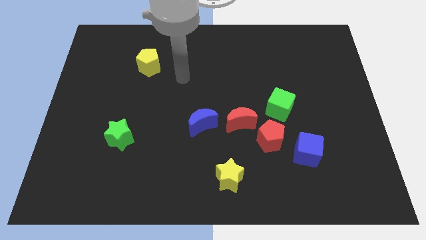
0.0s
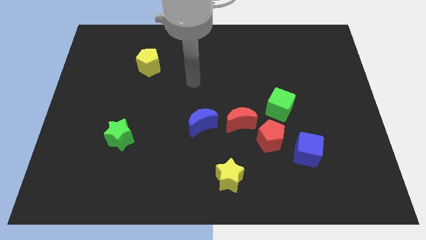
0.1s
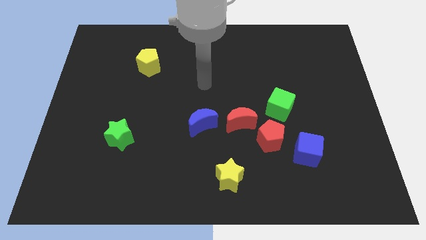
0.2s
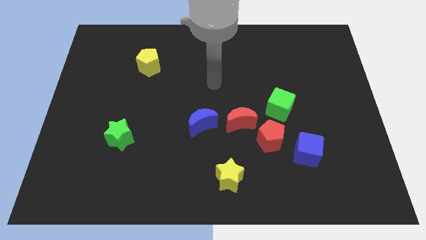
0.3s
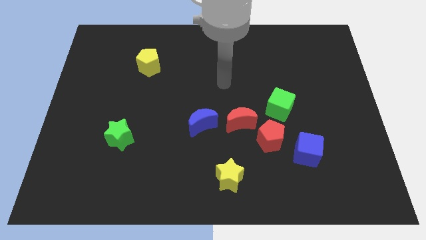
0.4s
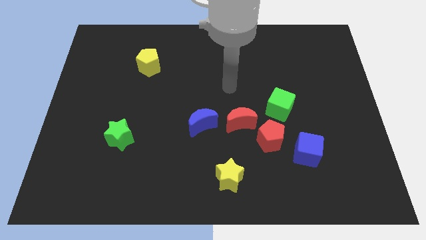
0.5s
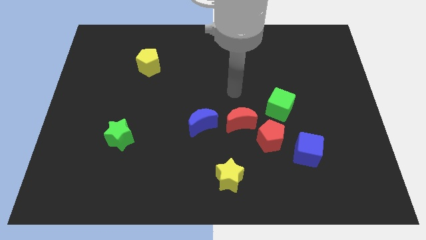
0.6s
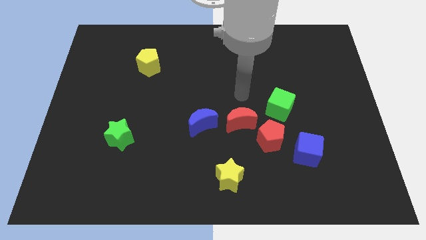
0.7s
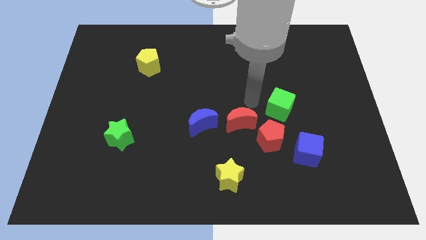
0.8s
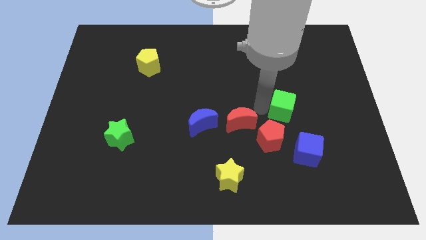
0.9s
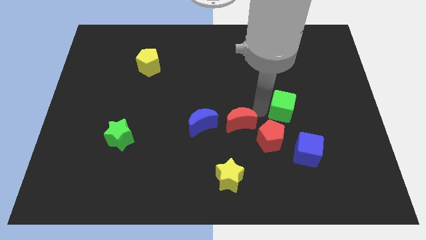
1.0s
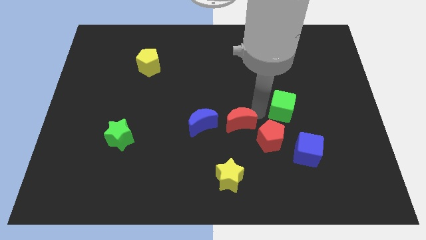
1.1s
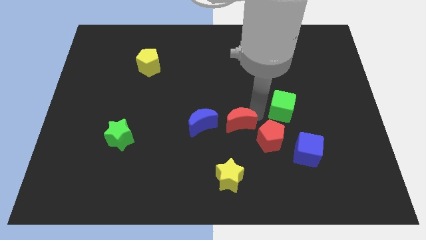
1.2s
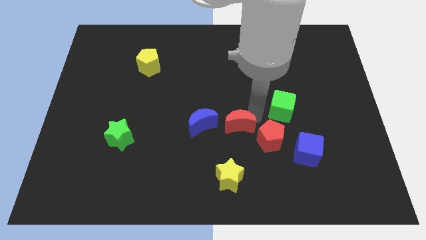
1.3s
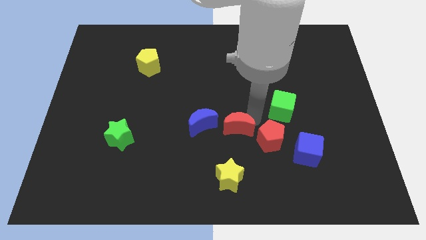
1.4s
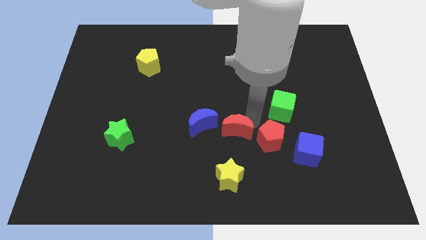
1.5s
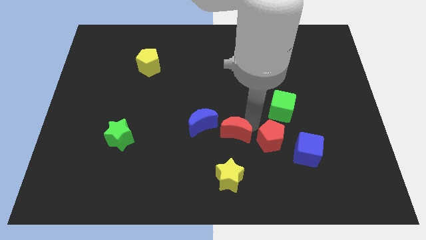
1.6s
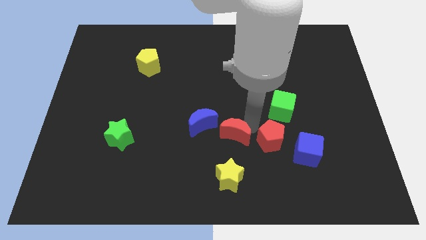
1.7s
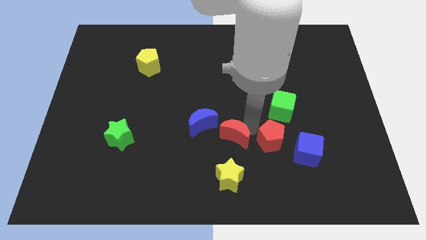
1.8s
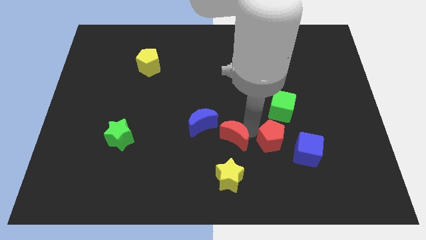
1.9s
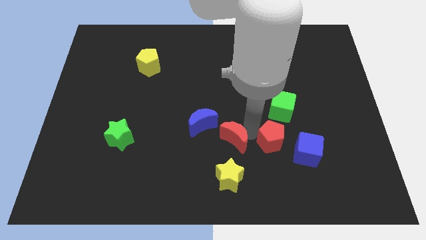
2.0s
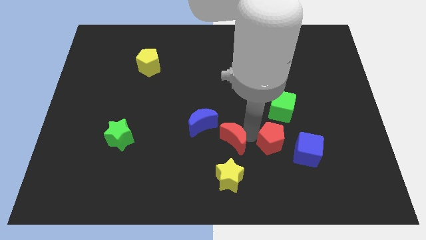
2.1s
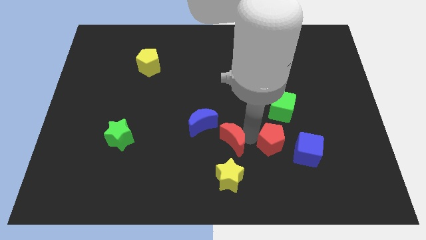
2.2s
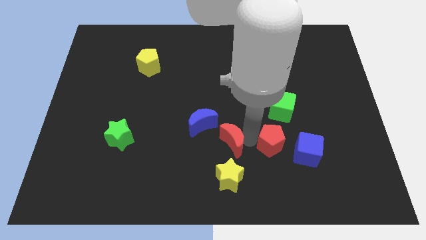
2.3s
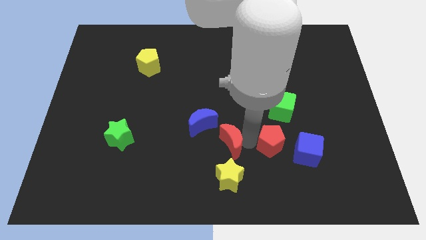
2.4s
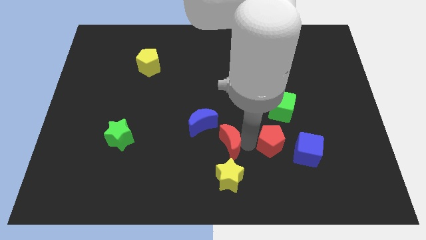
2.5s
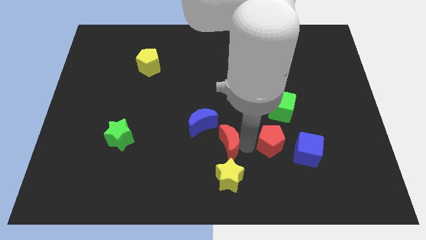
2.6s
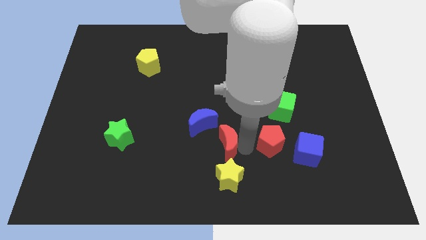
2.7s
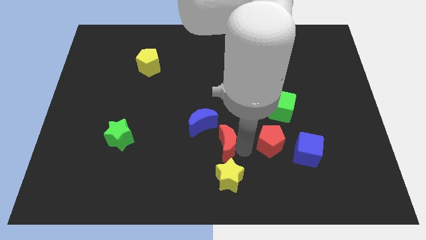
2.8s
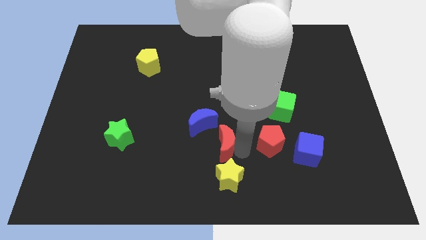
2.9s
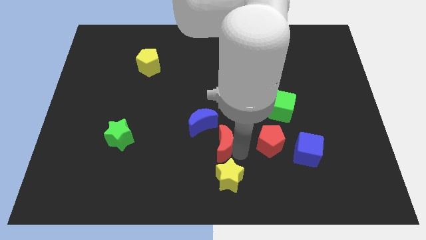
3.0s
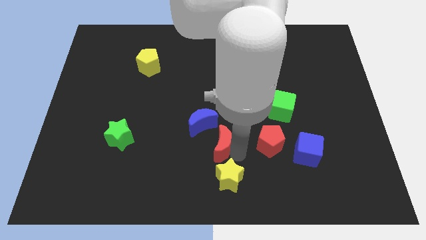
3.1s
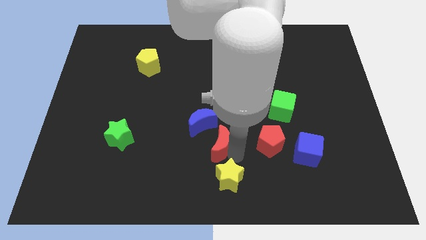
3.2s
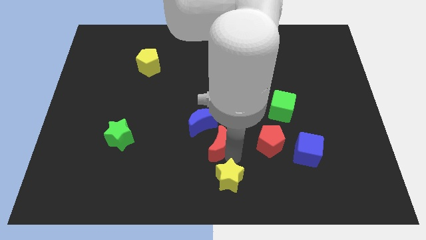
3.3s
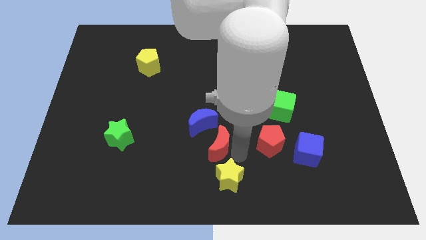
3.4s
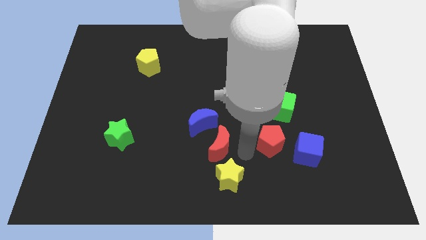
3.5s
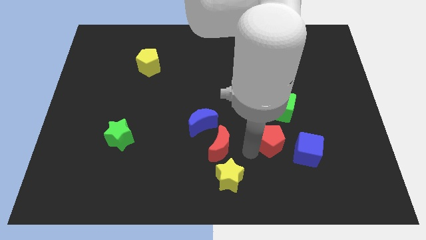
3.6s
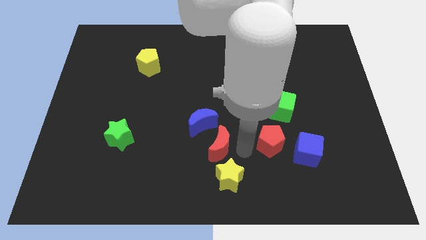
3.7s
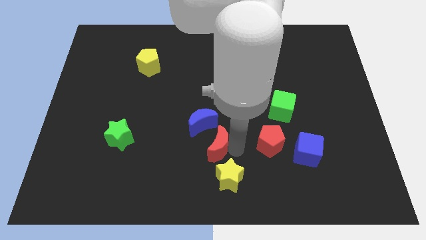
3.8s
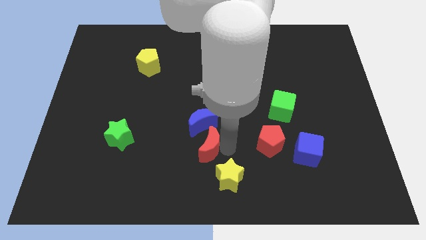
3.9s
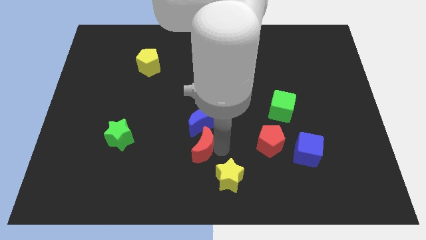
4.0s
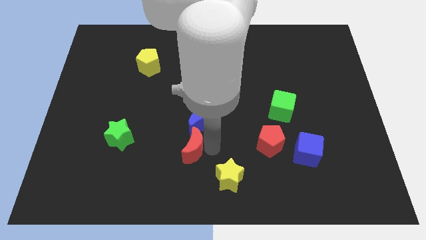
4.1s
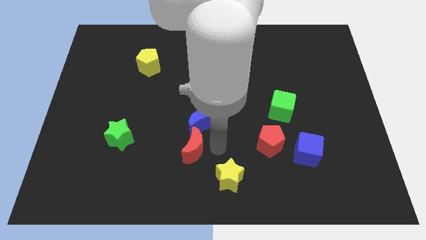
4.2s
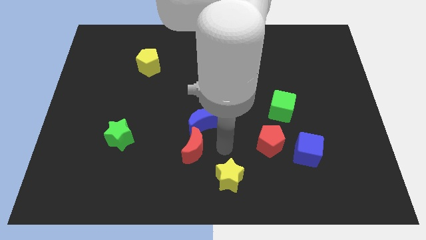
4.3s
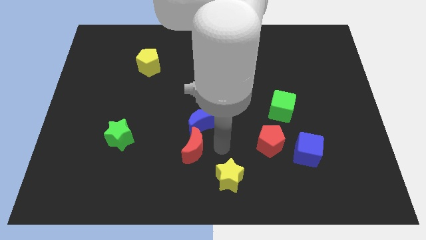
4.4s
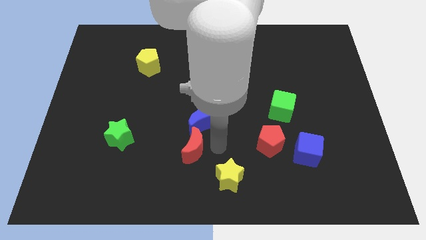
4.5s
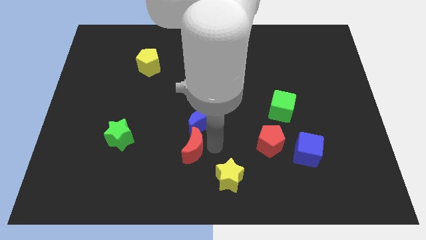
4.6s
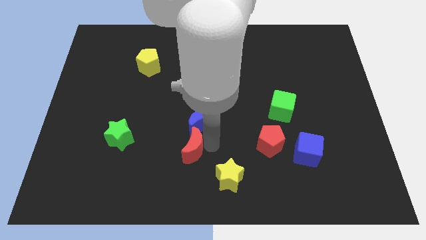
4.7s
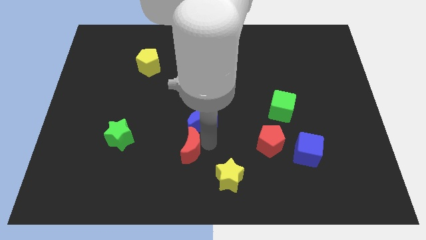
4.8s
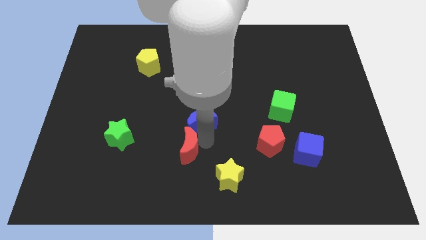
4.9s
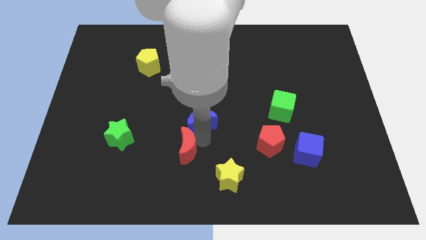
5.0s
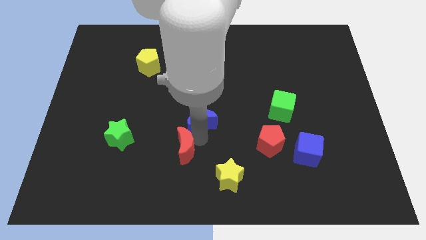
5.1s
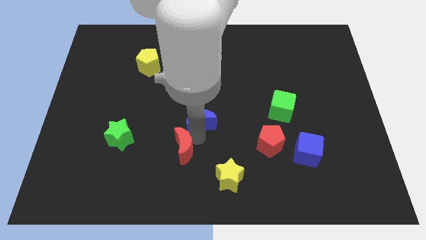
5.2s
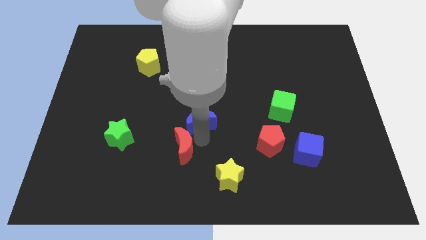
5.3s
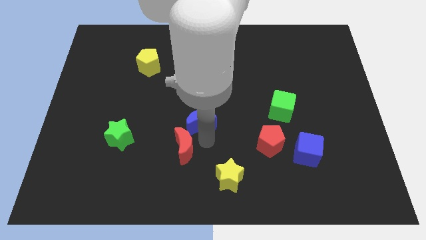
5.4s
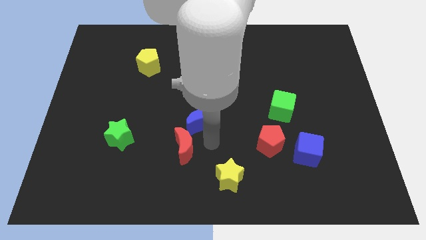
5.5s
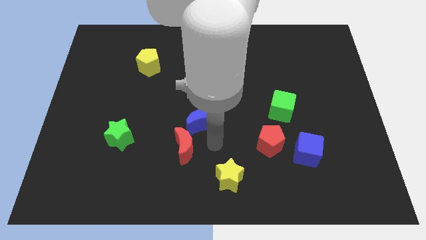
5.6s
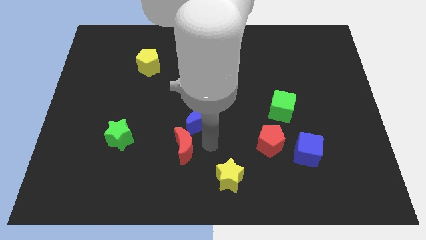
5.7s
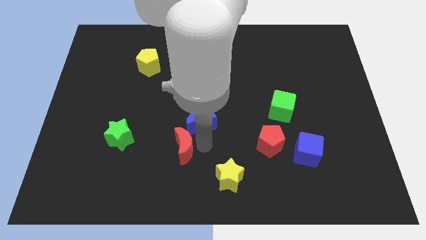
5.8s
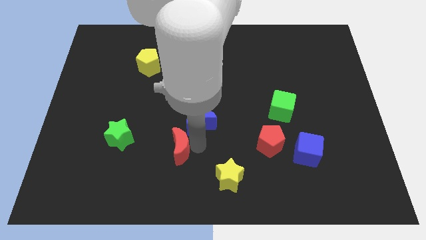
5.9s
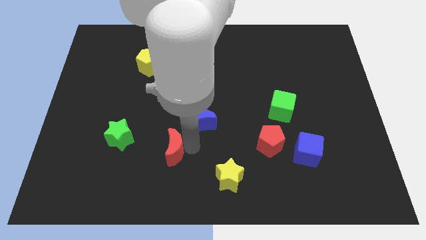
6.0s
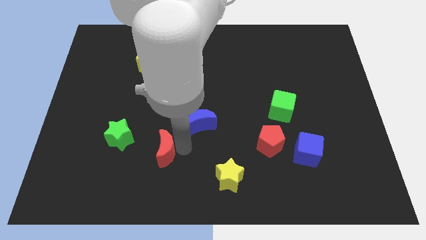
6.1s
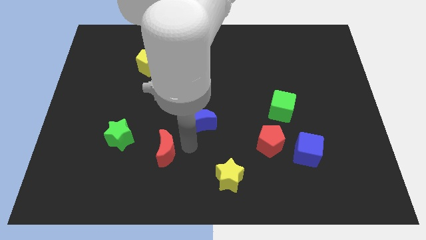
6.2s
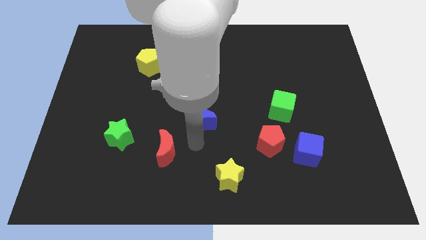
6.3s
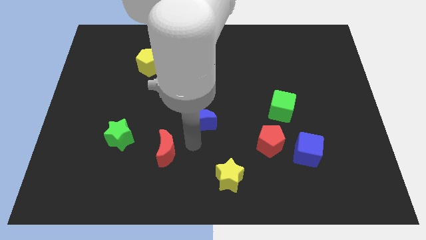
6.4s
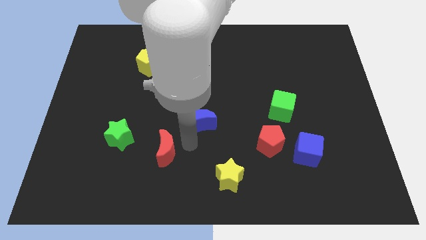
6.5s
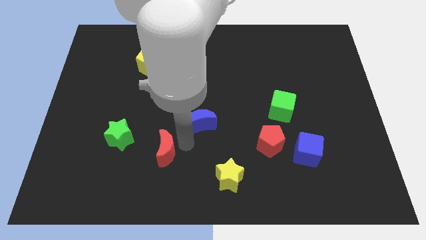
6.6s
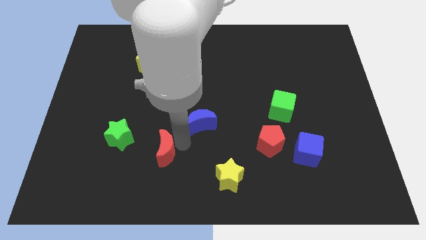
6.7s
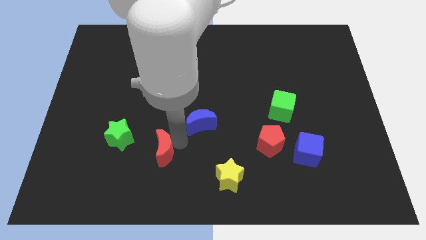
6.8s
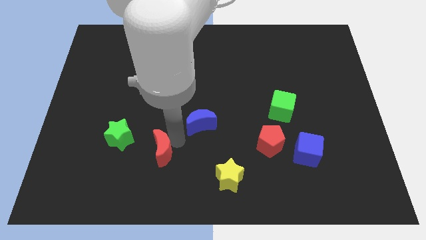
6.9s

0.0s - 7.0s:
put the red moon to the bottom right of the green star
